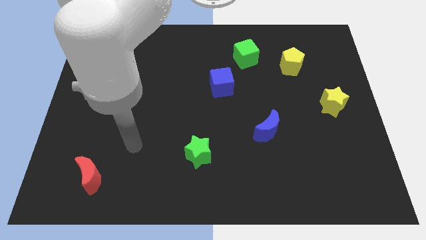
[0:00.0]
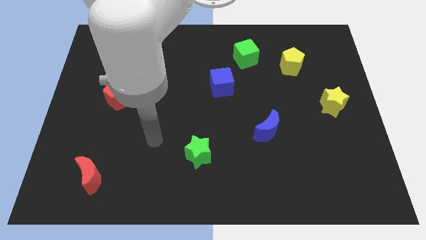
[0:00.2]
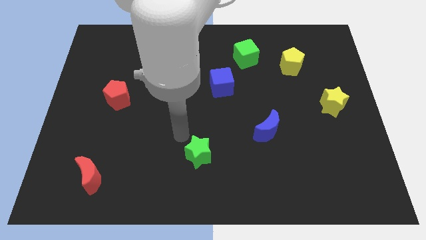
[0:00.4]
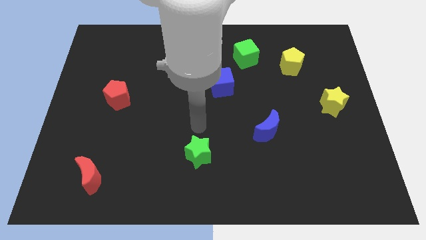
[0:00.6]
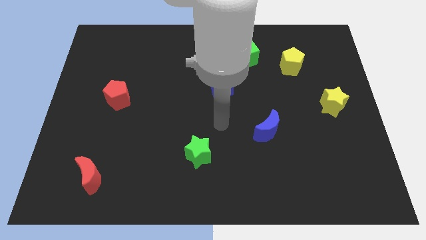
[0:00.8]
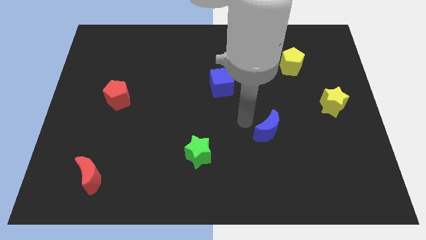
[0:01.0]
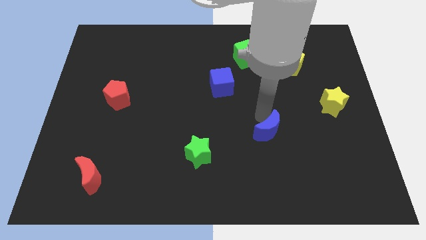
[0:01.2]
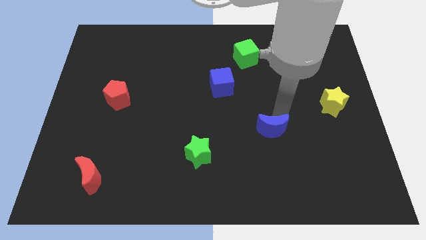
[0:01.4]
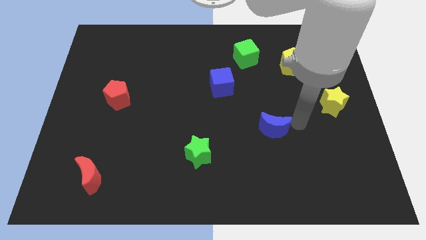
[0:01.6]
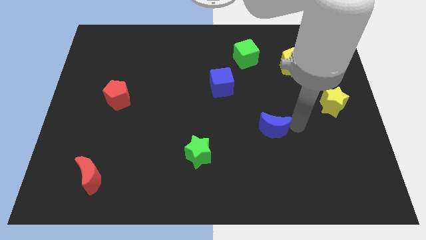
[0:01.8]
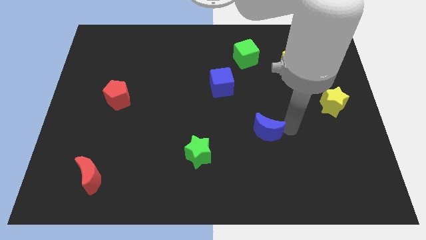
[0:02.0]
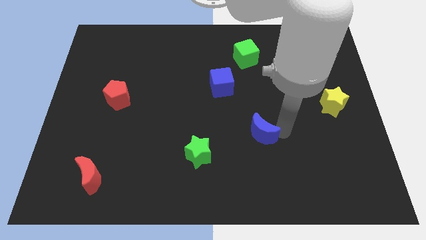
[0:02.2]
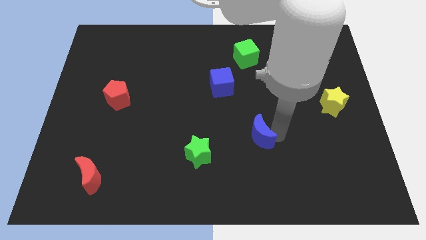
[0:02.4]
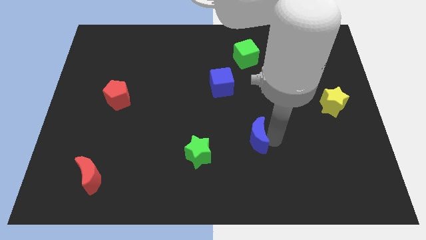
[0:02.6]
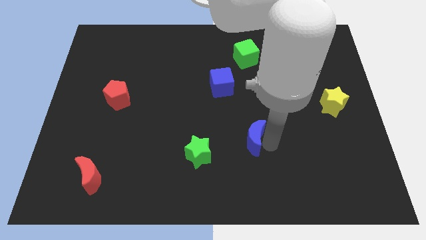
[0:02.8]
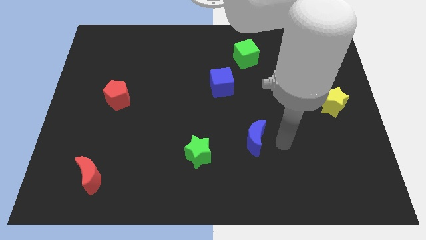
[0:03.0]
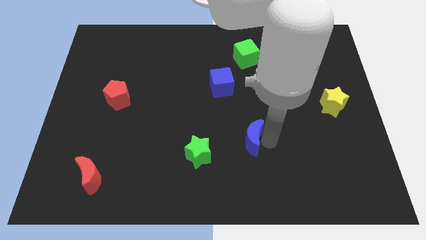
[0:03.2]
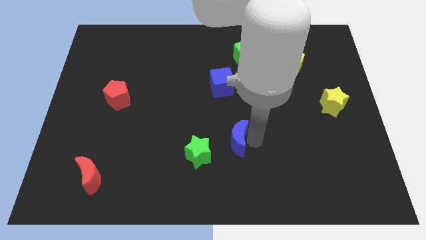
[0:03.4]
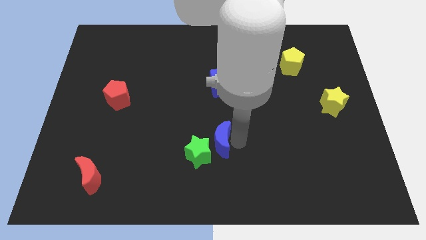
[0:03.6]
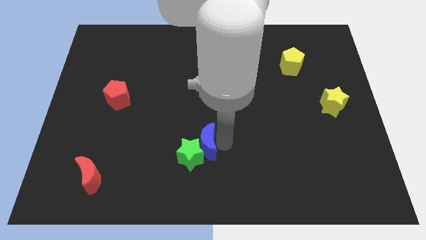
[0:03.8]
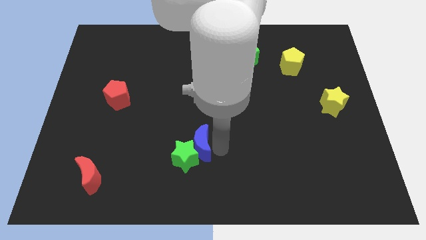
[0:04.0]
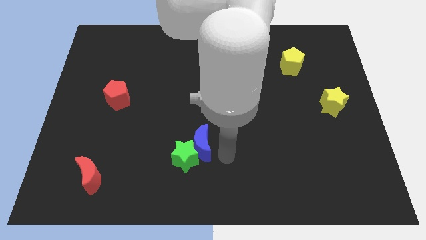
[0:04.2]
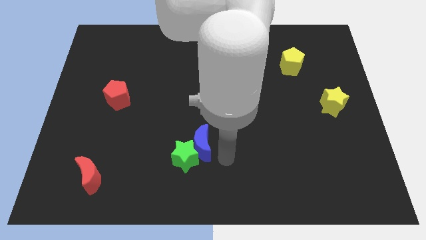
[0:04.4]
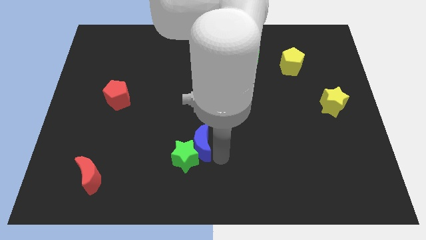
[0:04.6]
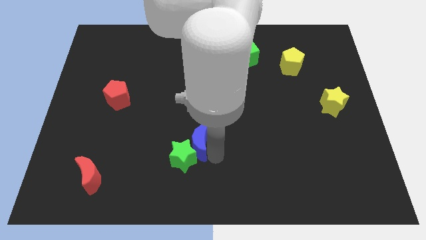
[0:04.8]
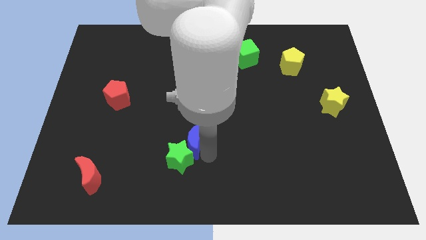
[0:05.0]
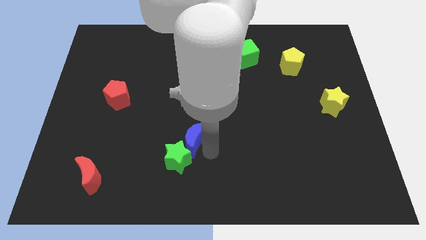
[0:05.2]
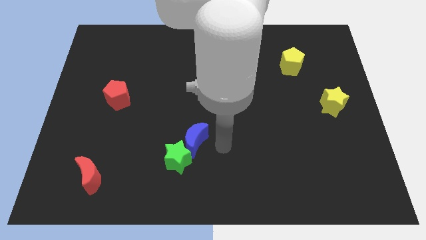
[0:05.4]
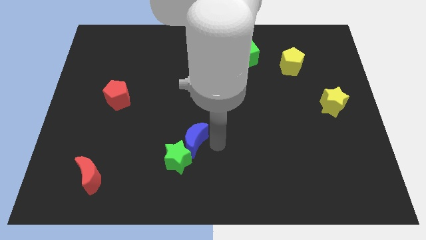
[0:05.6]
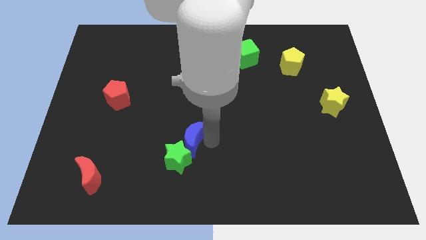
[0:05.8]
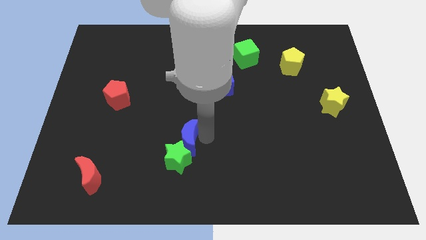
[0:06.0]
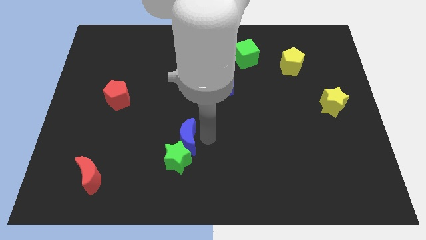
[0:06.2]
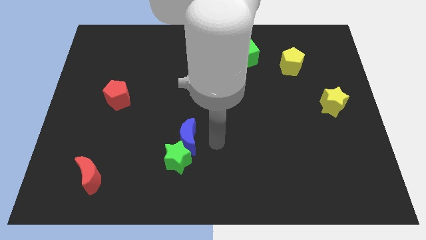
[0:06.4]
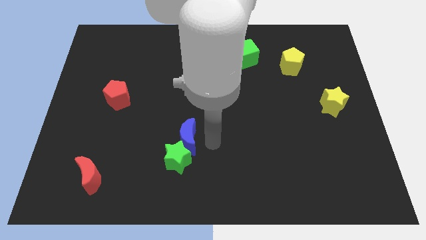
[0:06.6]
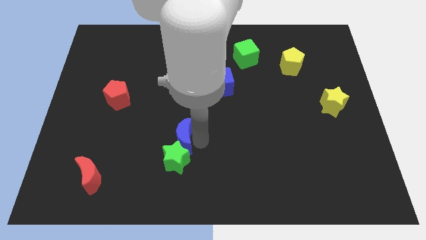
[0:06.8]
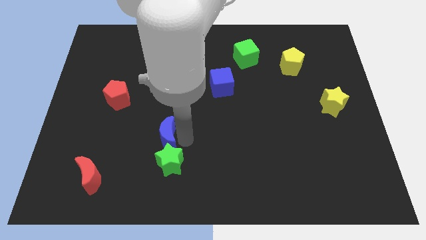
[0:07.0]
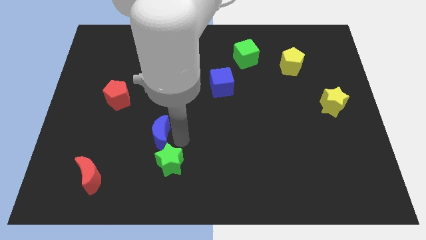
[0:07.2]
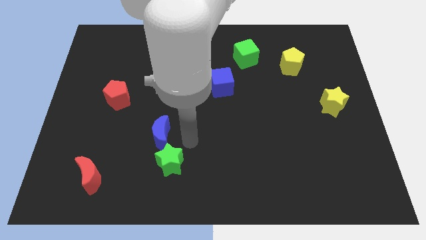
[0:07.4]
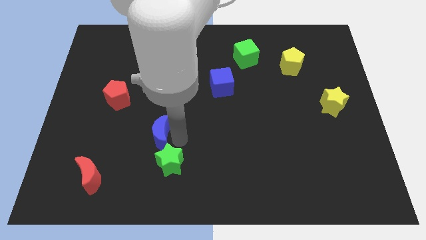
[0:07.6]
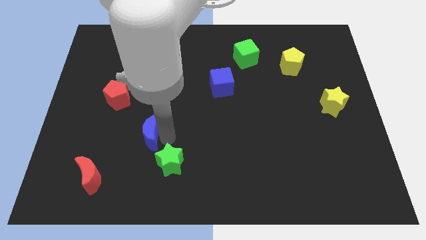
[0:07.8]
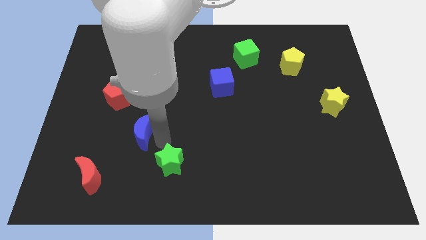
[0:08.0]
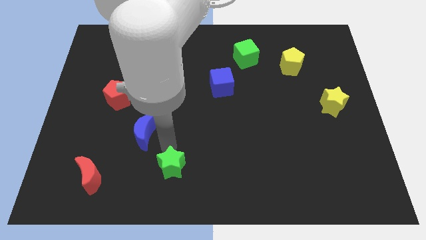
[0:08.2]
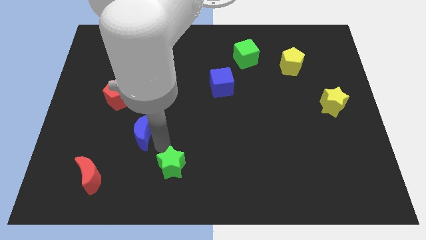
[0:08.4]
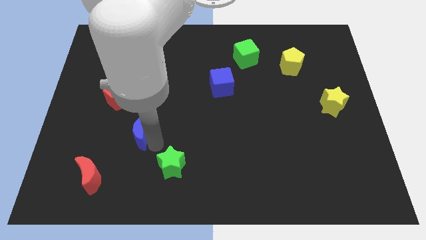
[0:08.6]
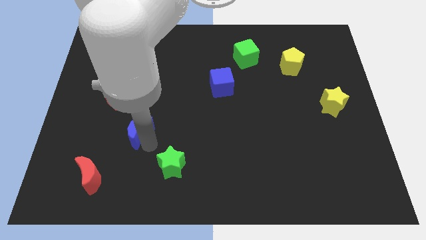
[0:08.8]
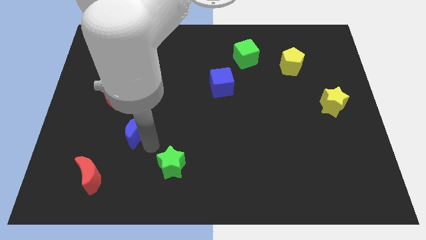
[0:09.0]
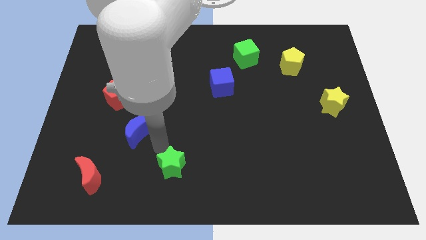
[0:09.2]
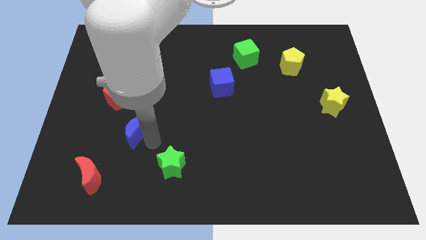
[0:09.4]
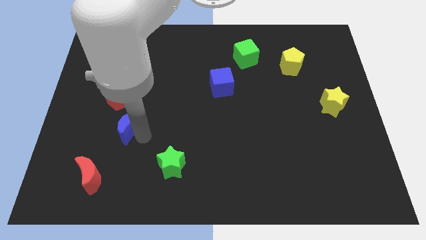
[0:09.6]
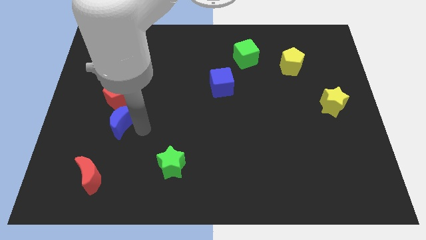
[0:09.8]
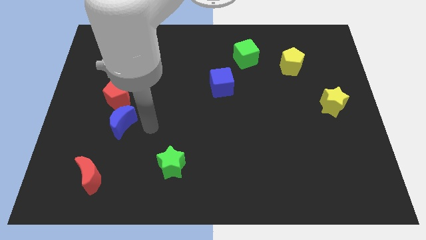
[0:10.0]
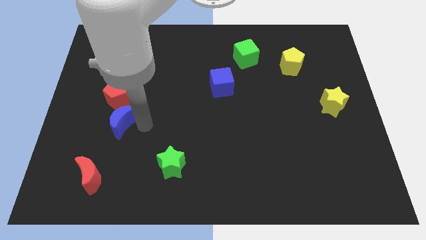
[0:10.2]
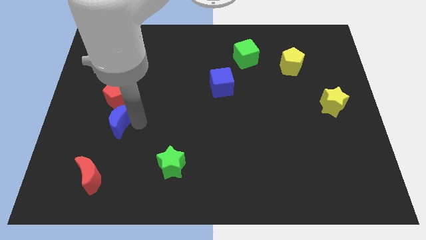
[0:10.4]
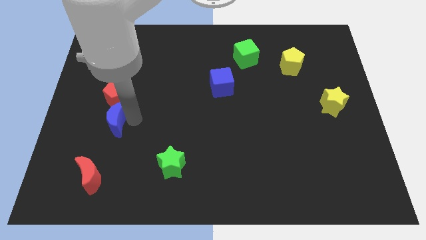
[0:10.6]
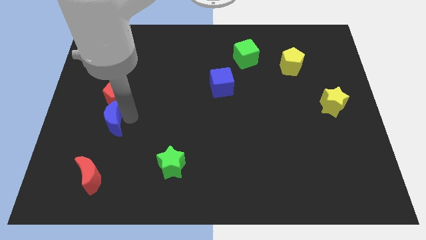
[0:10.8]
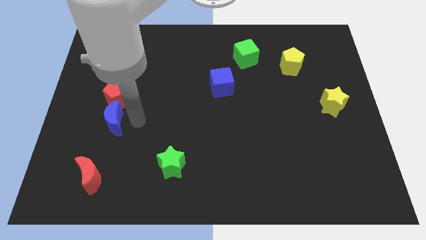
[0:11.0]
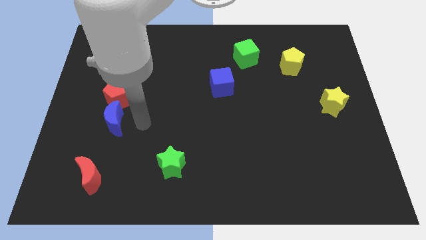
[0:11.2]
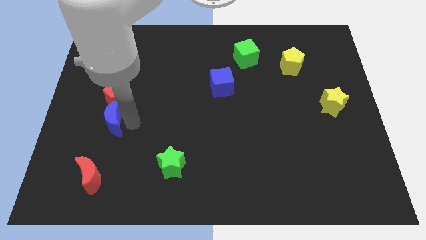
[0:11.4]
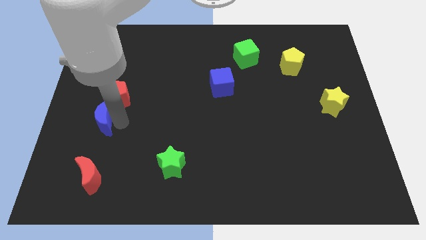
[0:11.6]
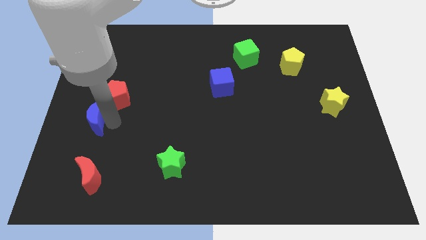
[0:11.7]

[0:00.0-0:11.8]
slide the blue moon to the left side

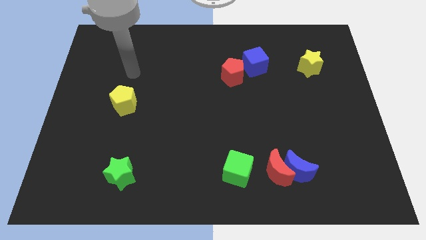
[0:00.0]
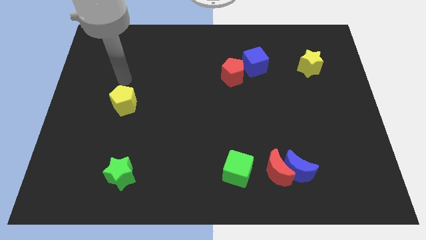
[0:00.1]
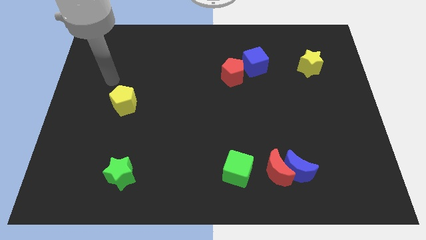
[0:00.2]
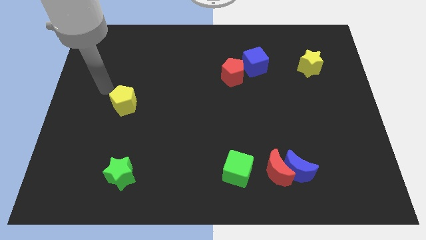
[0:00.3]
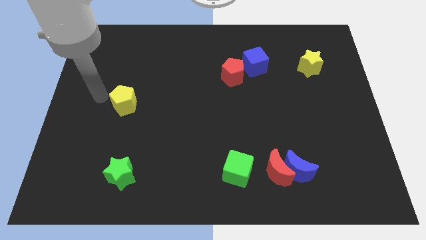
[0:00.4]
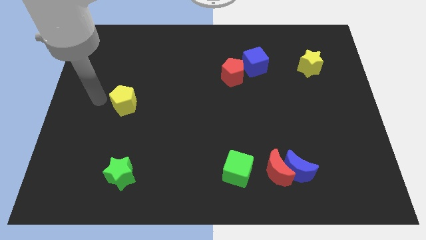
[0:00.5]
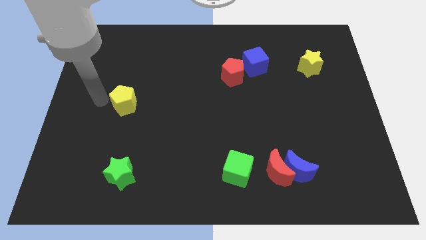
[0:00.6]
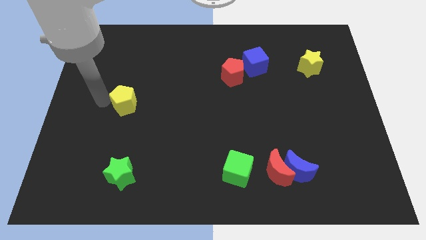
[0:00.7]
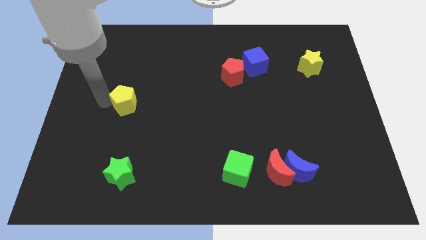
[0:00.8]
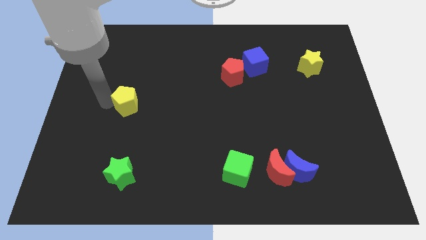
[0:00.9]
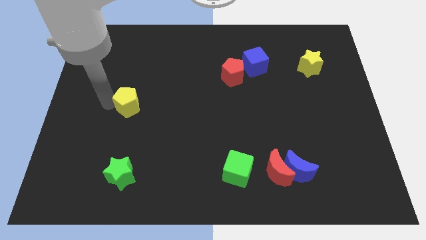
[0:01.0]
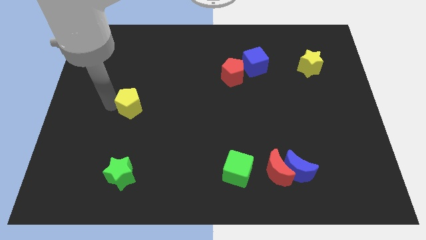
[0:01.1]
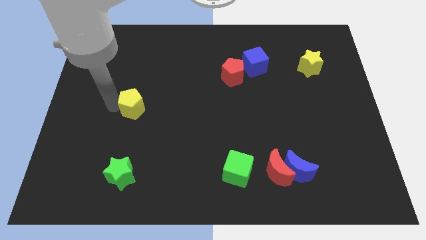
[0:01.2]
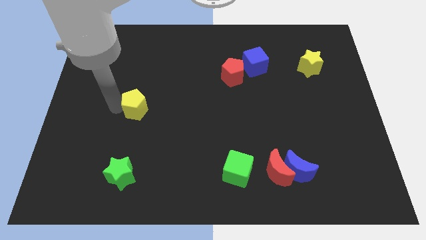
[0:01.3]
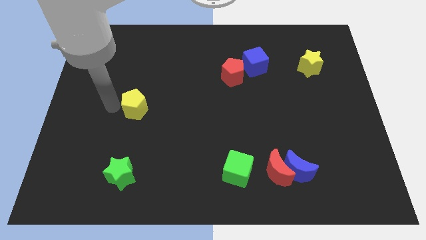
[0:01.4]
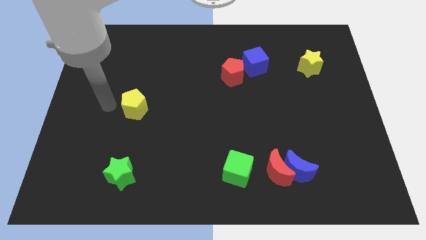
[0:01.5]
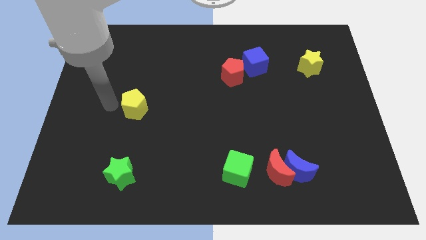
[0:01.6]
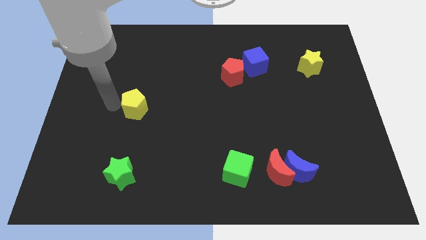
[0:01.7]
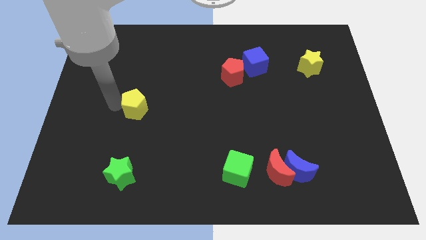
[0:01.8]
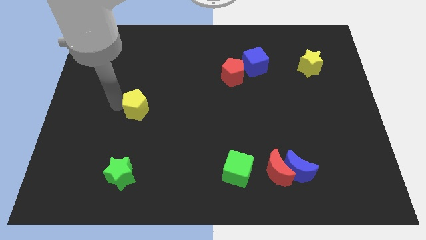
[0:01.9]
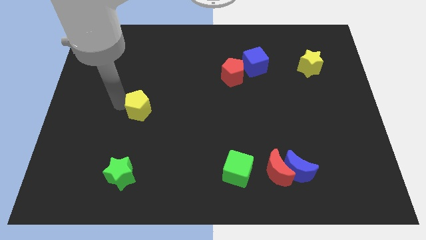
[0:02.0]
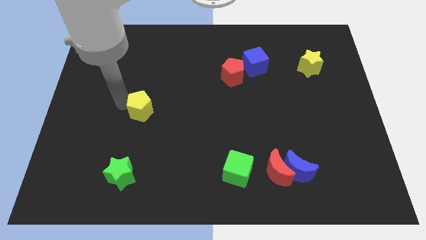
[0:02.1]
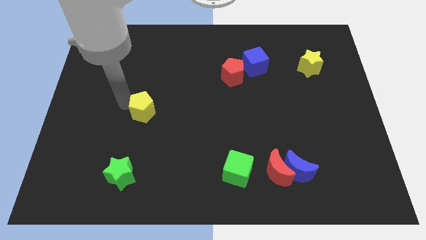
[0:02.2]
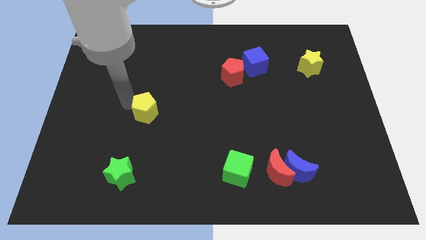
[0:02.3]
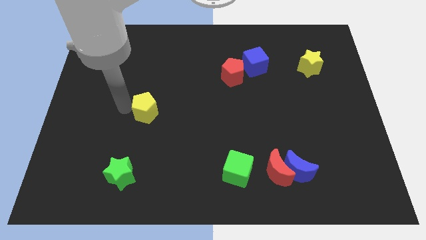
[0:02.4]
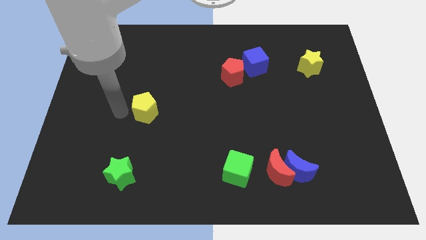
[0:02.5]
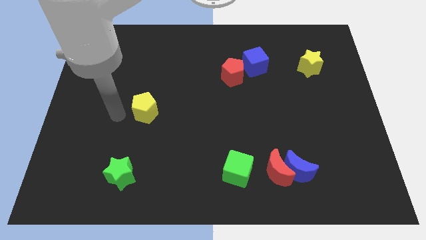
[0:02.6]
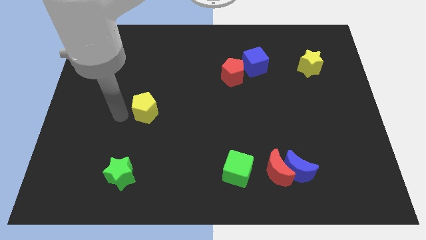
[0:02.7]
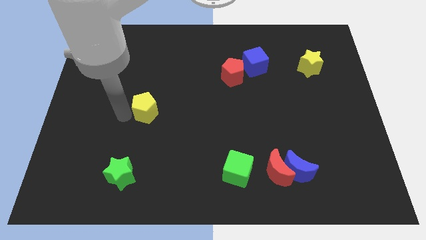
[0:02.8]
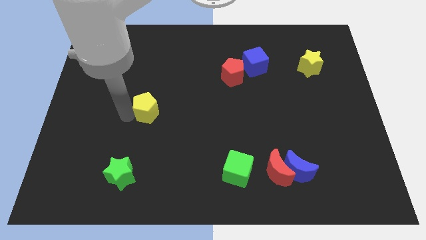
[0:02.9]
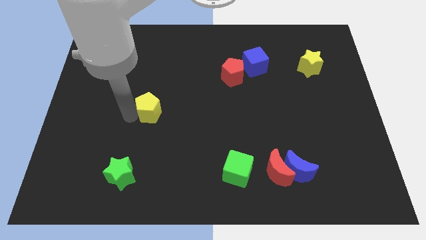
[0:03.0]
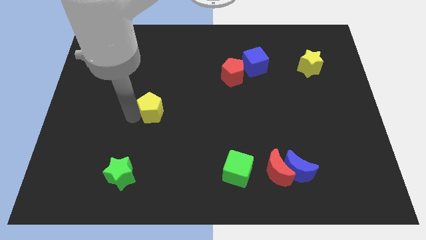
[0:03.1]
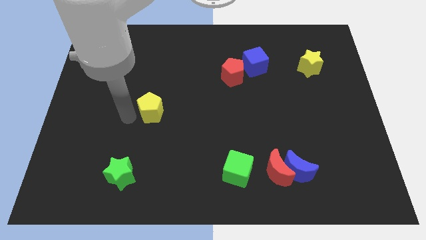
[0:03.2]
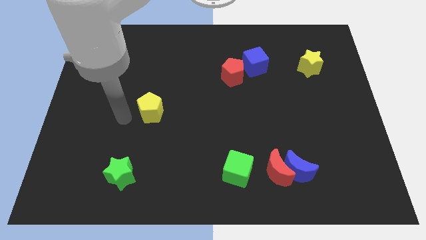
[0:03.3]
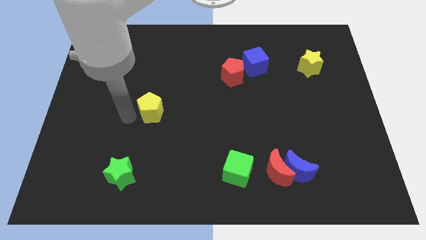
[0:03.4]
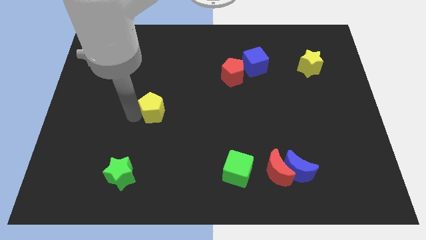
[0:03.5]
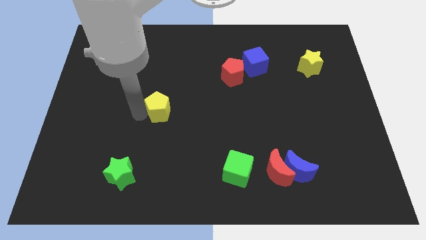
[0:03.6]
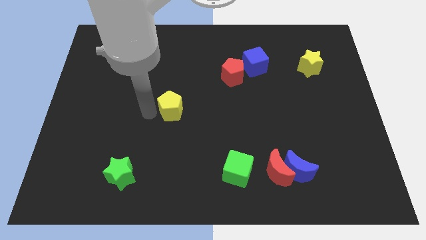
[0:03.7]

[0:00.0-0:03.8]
move the yellow pentagon to the center
